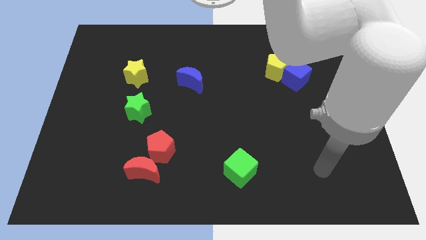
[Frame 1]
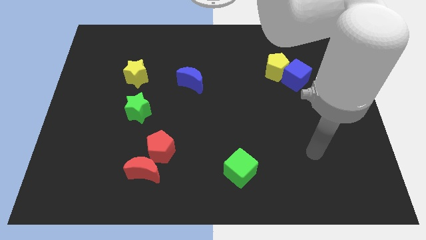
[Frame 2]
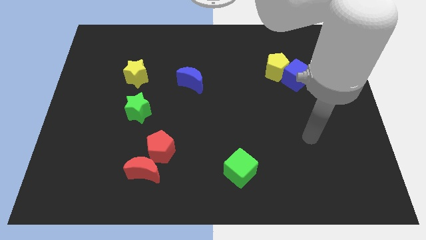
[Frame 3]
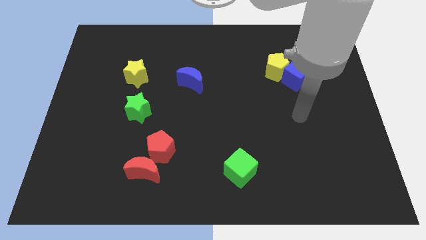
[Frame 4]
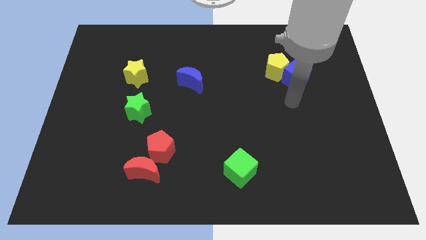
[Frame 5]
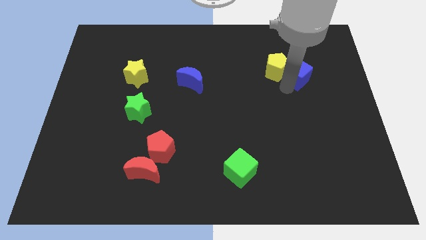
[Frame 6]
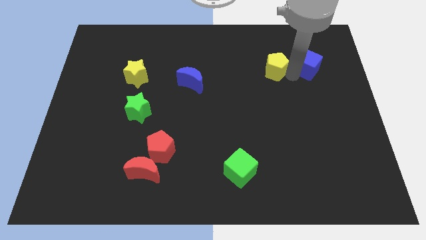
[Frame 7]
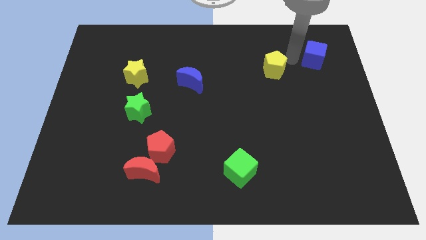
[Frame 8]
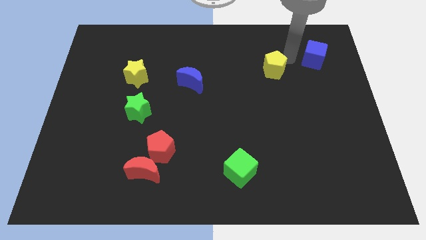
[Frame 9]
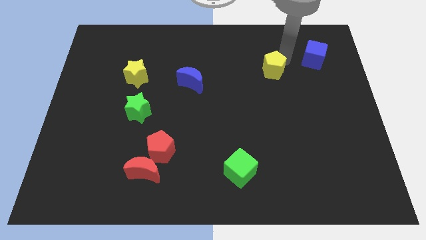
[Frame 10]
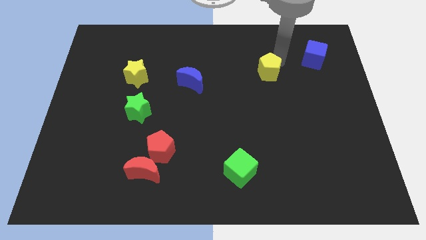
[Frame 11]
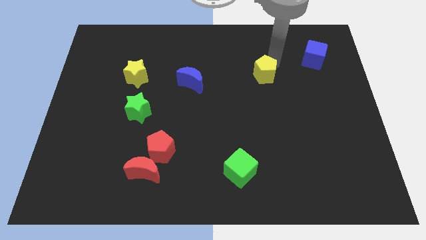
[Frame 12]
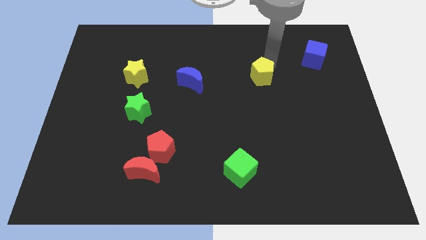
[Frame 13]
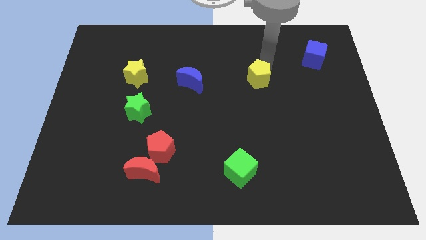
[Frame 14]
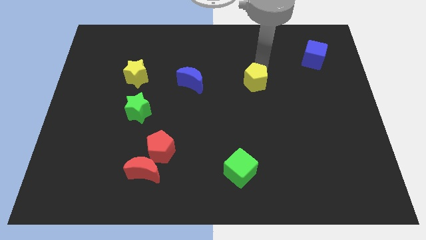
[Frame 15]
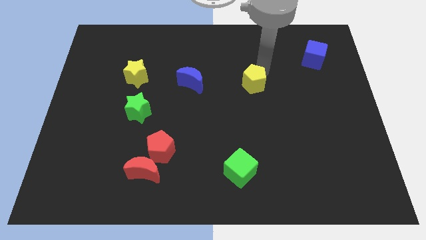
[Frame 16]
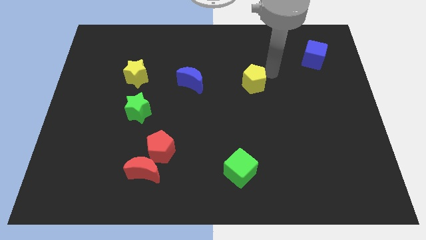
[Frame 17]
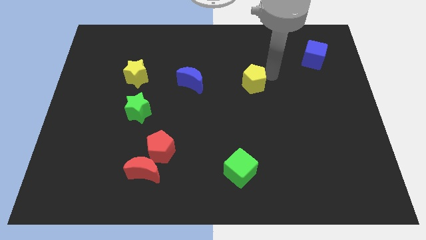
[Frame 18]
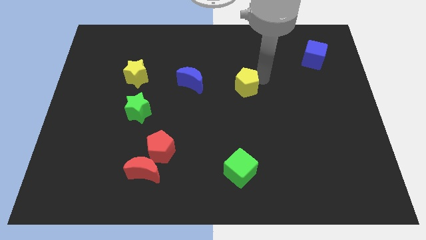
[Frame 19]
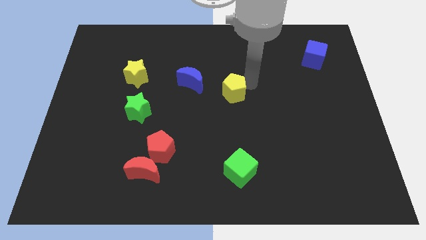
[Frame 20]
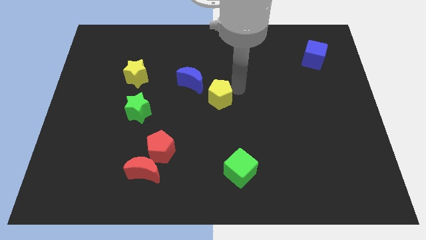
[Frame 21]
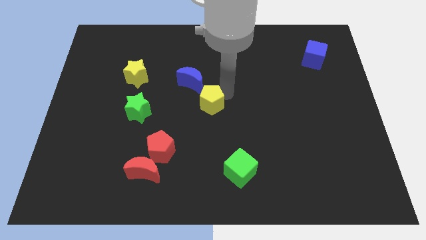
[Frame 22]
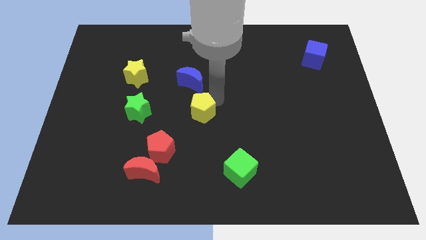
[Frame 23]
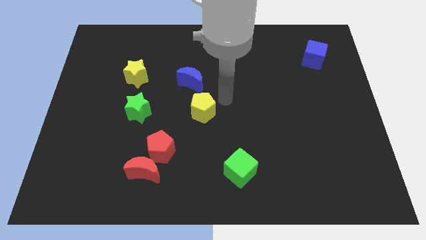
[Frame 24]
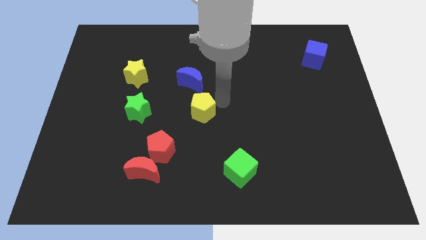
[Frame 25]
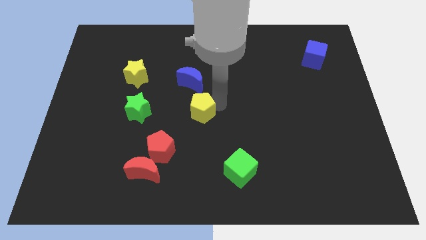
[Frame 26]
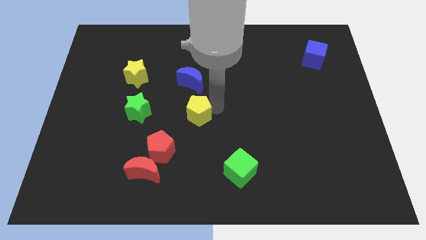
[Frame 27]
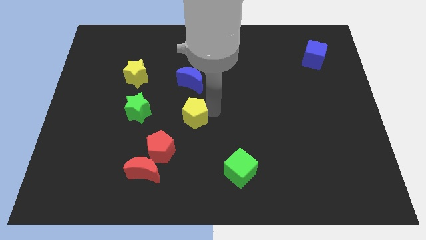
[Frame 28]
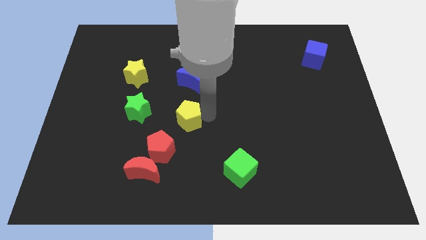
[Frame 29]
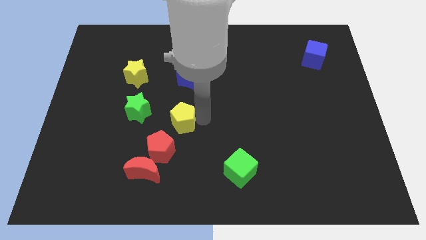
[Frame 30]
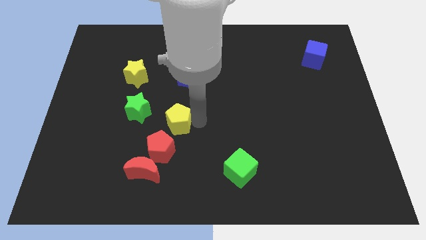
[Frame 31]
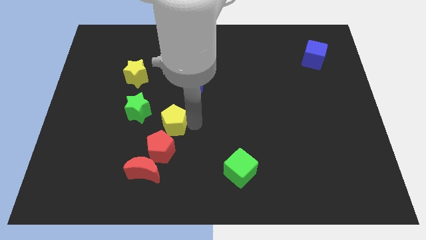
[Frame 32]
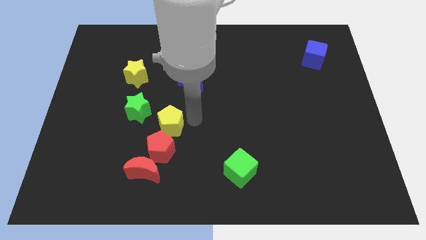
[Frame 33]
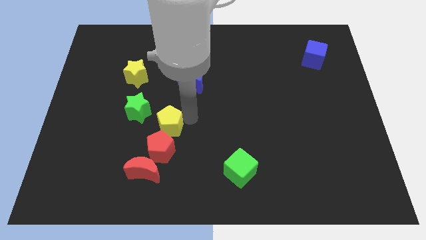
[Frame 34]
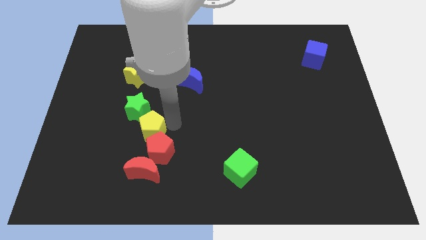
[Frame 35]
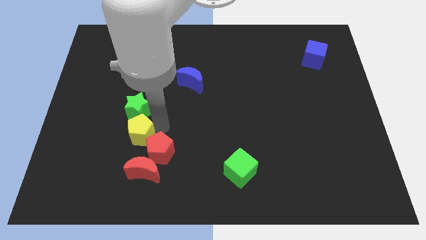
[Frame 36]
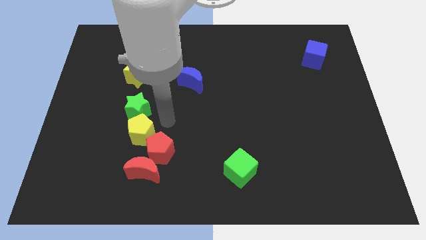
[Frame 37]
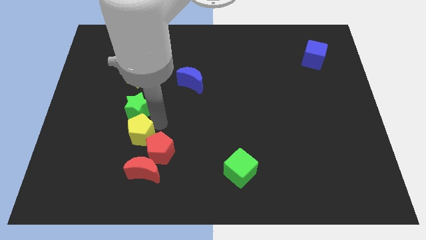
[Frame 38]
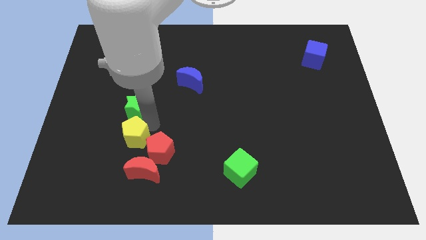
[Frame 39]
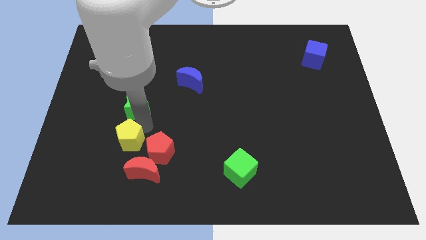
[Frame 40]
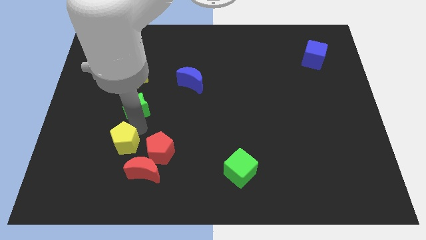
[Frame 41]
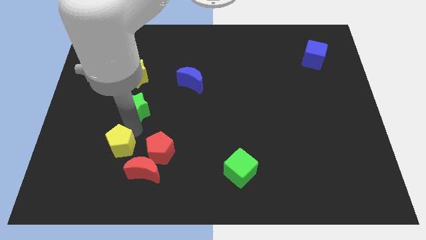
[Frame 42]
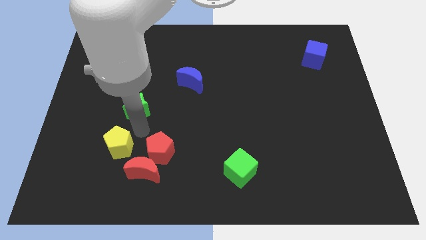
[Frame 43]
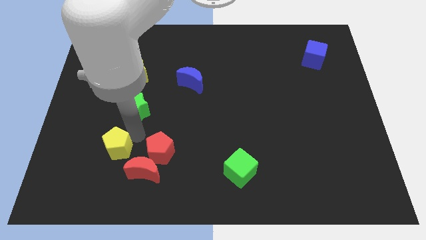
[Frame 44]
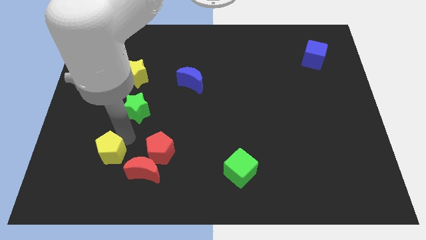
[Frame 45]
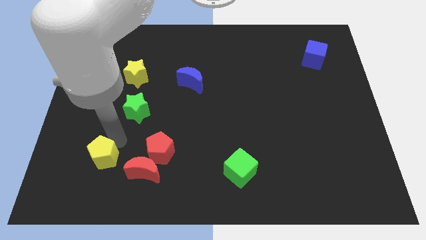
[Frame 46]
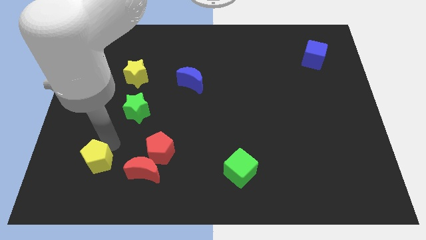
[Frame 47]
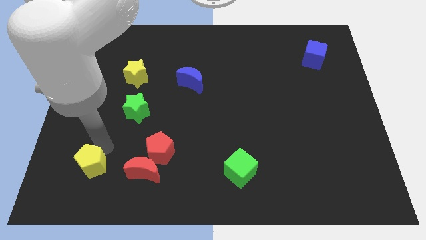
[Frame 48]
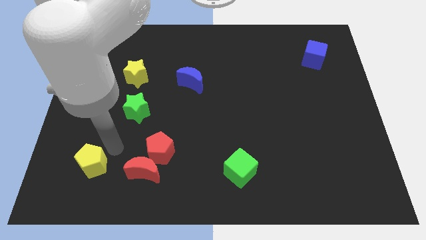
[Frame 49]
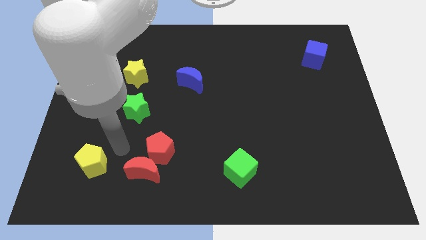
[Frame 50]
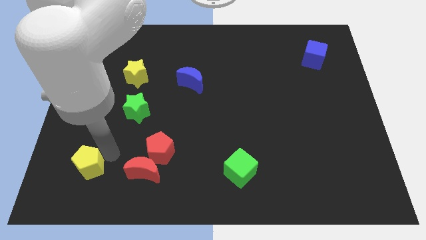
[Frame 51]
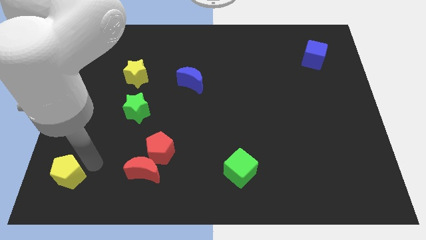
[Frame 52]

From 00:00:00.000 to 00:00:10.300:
push the yellow pentagon to the lower left corner

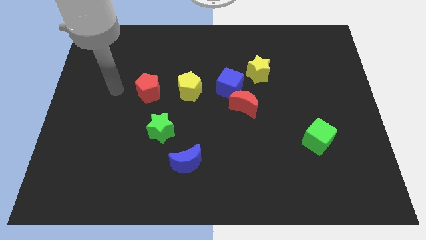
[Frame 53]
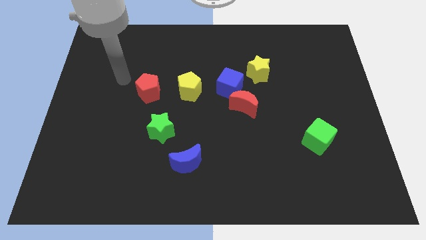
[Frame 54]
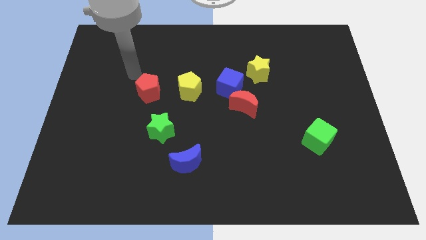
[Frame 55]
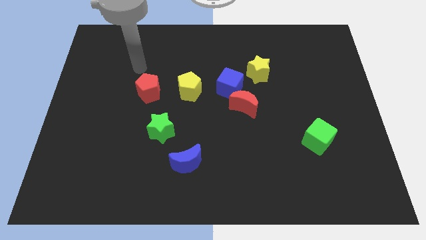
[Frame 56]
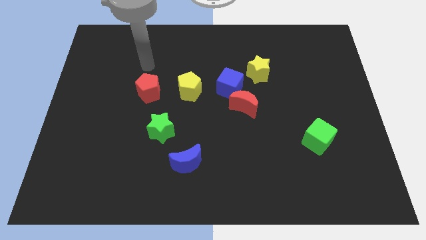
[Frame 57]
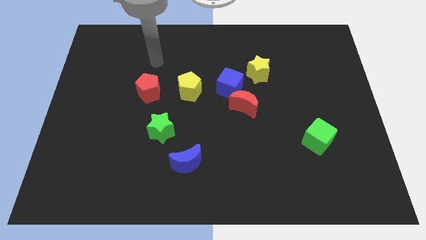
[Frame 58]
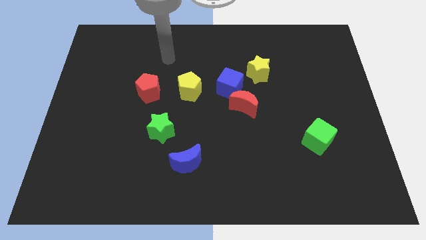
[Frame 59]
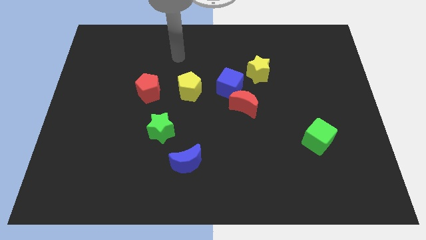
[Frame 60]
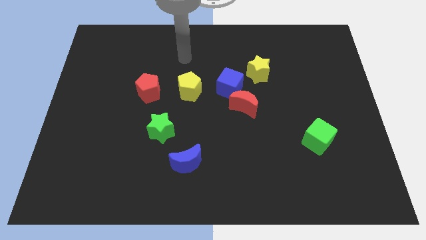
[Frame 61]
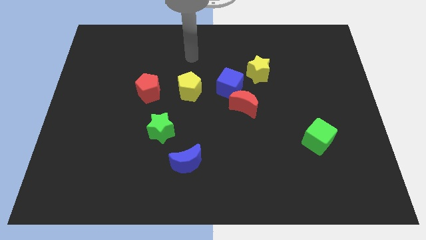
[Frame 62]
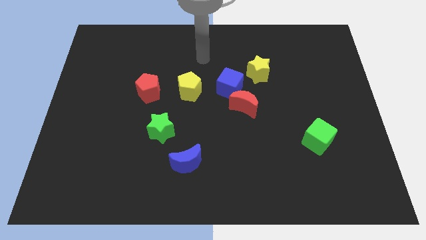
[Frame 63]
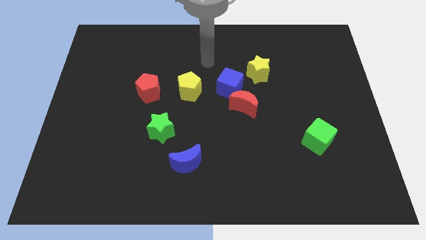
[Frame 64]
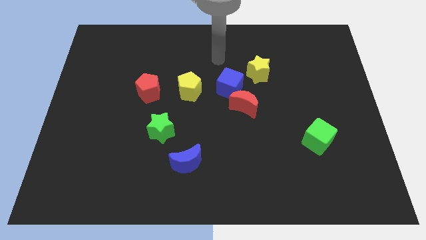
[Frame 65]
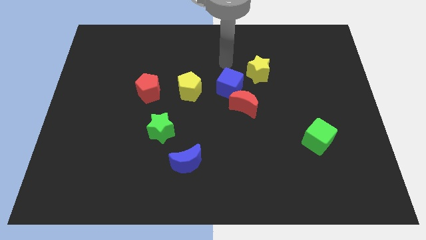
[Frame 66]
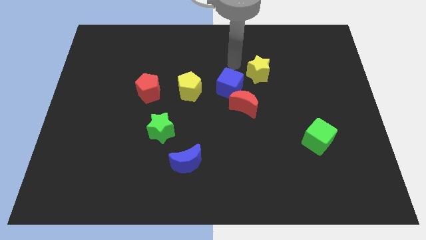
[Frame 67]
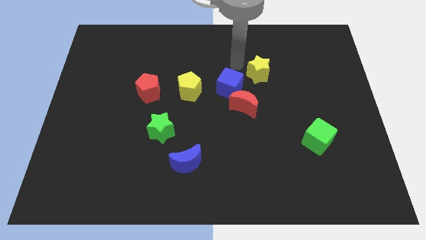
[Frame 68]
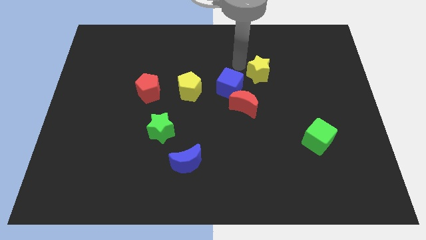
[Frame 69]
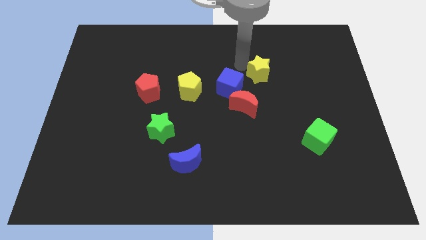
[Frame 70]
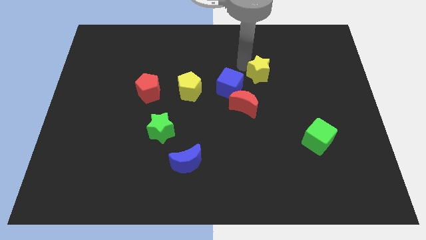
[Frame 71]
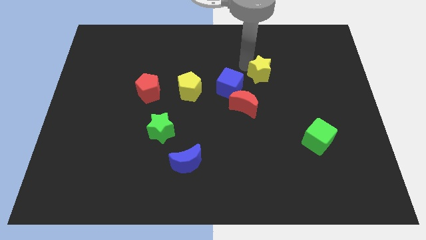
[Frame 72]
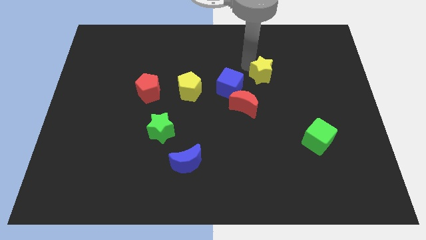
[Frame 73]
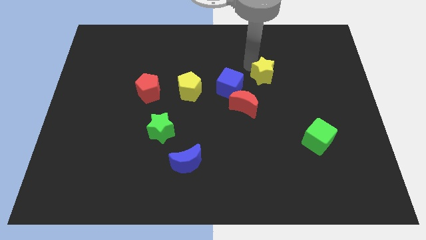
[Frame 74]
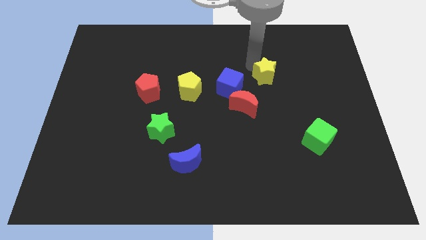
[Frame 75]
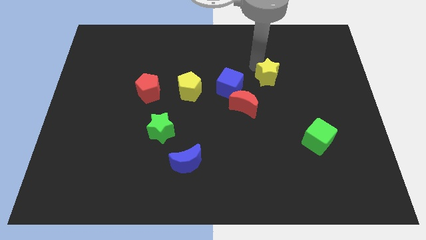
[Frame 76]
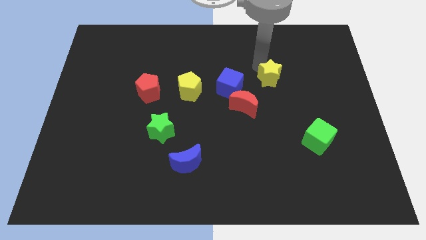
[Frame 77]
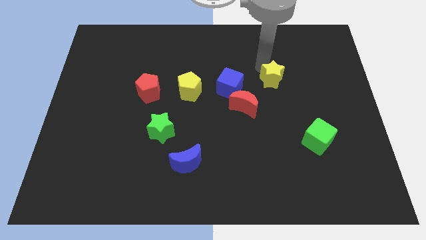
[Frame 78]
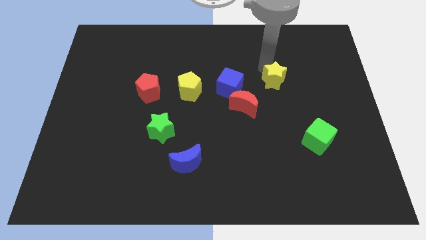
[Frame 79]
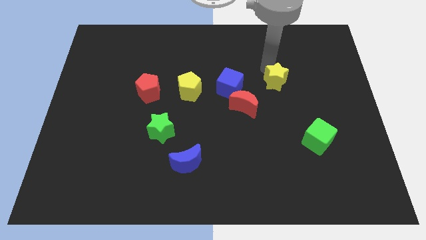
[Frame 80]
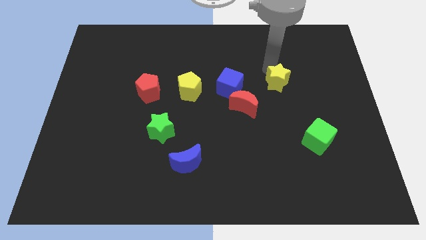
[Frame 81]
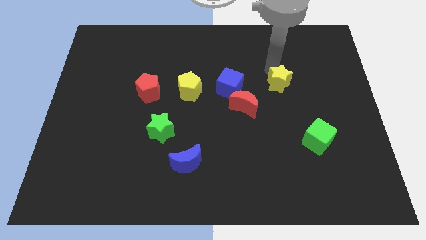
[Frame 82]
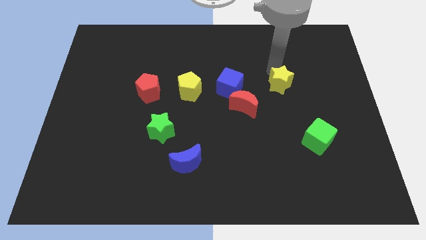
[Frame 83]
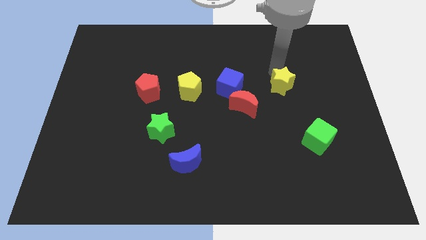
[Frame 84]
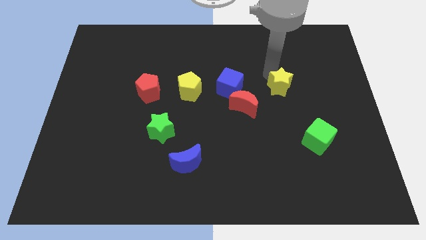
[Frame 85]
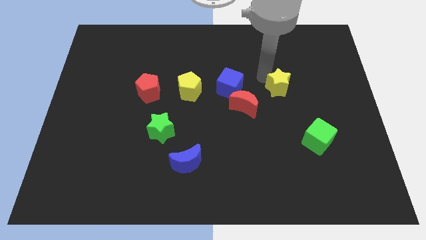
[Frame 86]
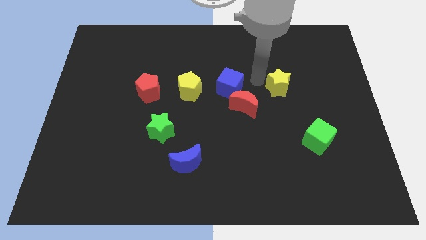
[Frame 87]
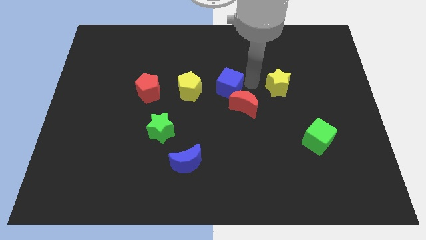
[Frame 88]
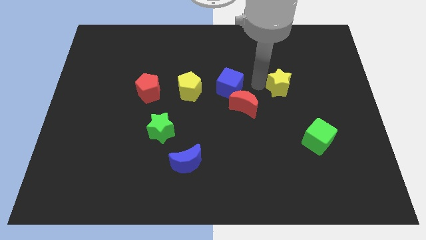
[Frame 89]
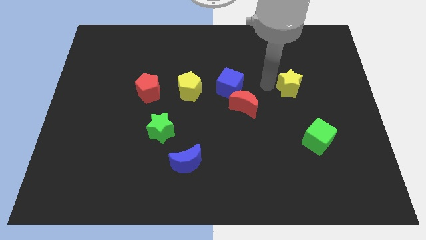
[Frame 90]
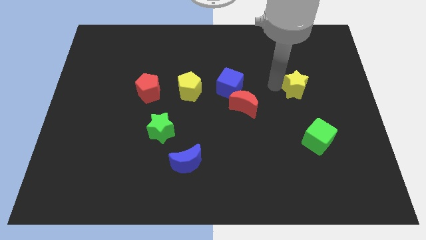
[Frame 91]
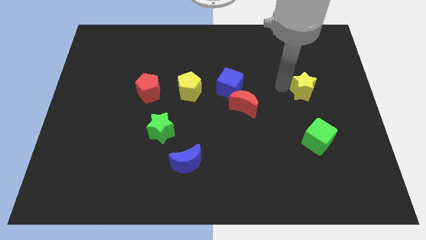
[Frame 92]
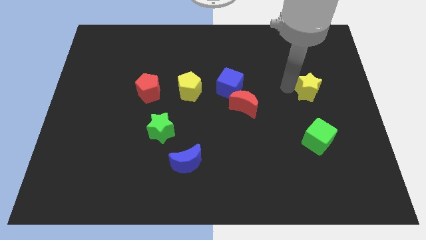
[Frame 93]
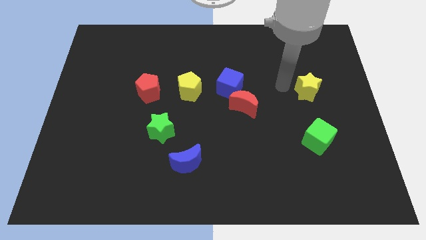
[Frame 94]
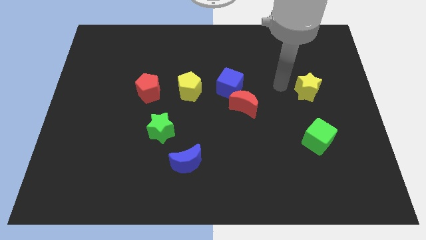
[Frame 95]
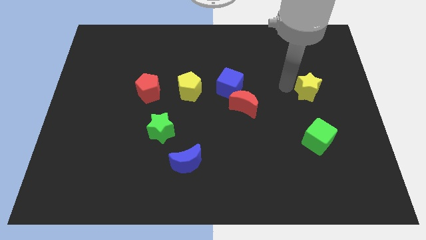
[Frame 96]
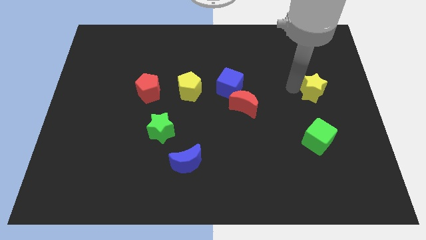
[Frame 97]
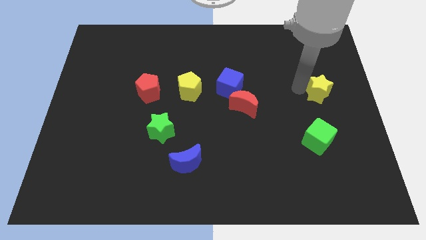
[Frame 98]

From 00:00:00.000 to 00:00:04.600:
put the yellow star to the right side of the board
